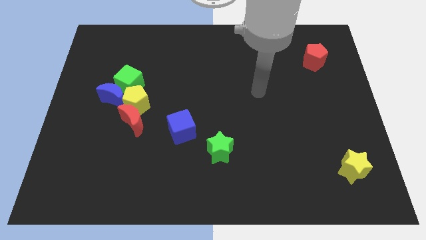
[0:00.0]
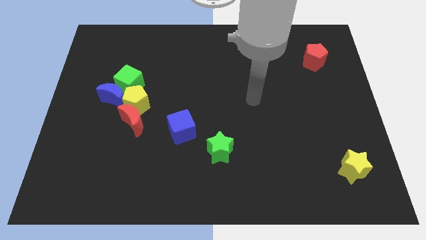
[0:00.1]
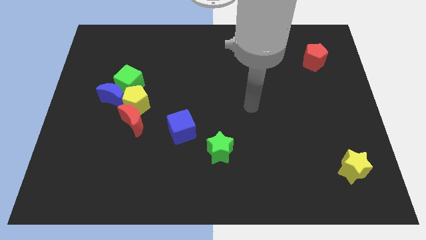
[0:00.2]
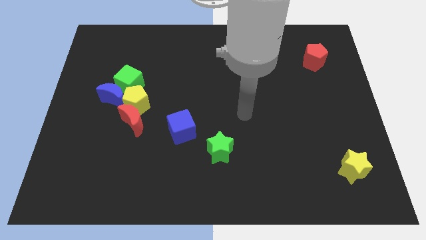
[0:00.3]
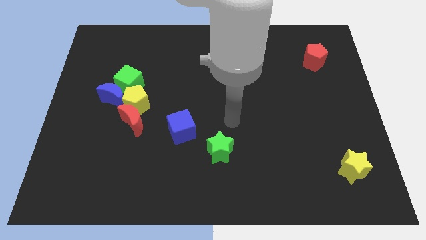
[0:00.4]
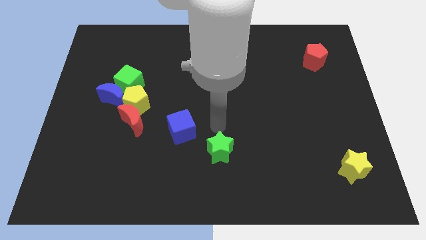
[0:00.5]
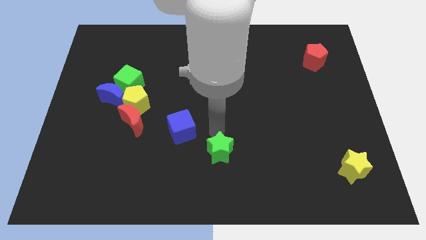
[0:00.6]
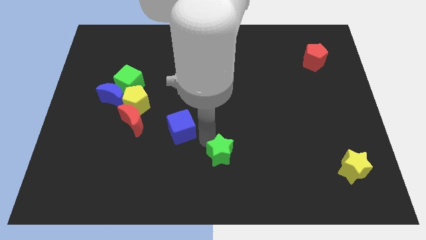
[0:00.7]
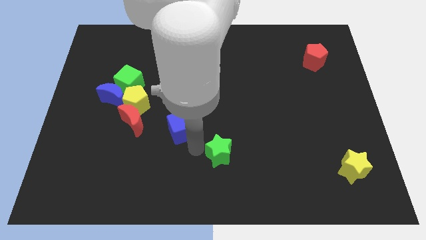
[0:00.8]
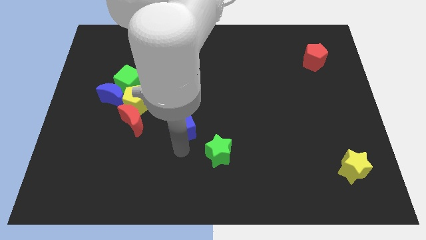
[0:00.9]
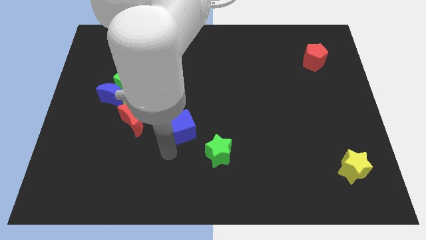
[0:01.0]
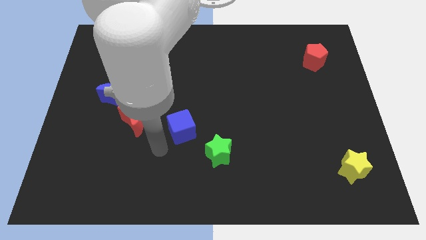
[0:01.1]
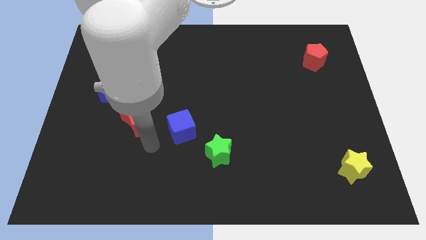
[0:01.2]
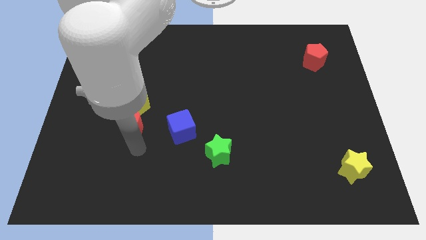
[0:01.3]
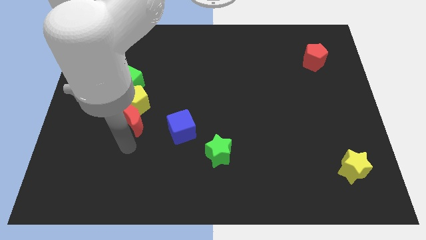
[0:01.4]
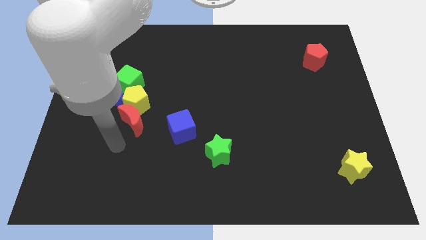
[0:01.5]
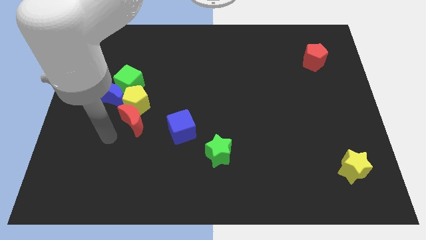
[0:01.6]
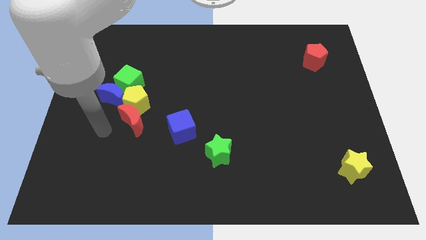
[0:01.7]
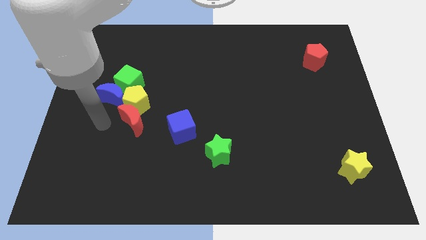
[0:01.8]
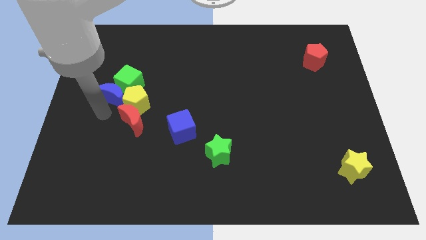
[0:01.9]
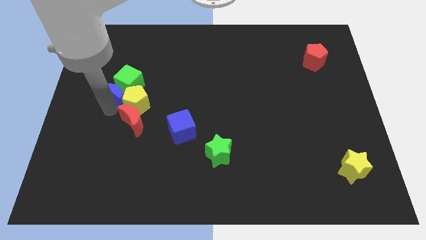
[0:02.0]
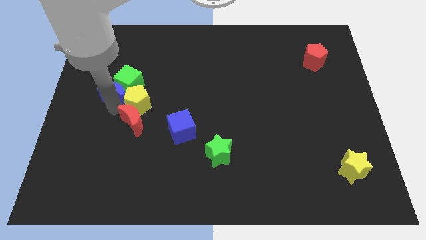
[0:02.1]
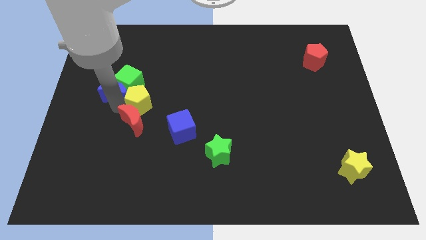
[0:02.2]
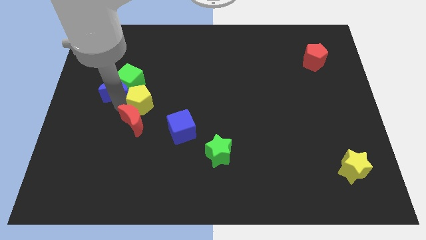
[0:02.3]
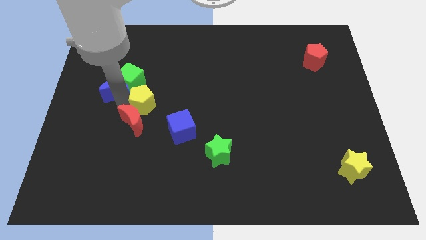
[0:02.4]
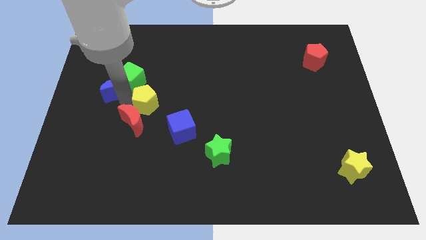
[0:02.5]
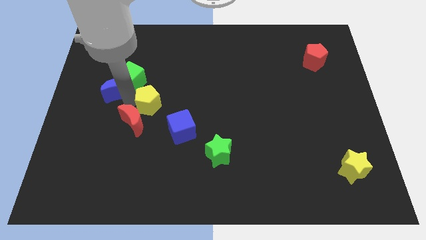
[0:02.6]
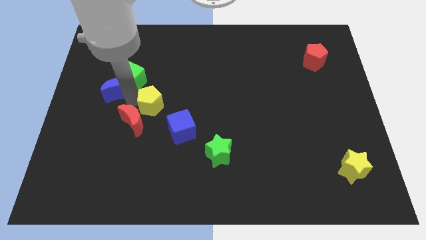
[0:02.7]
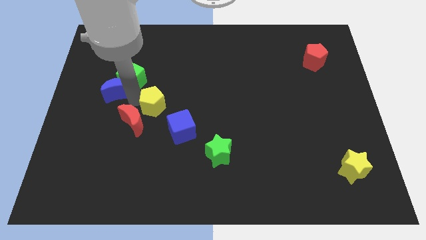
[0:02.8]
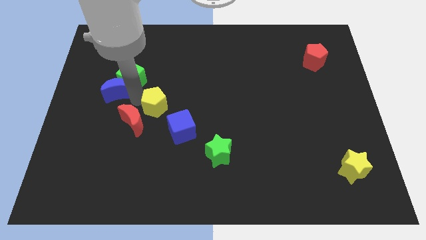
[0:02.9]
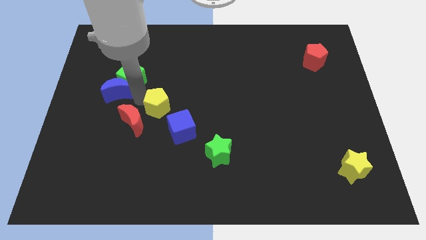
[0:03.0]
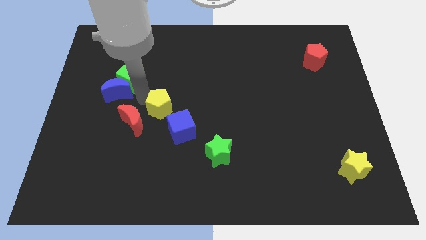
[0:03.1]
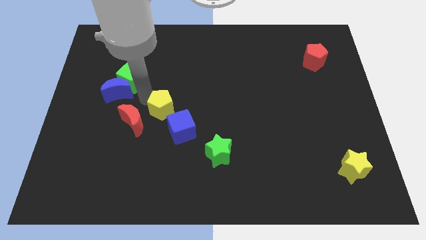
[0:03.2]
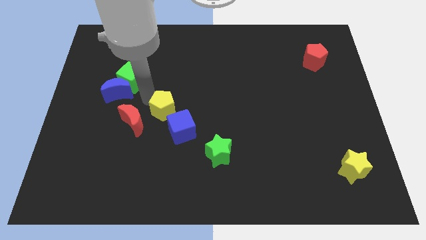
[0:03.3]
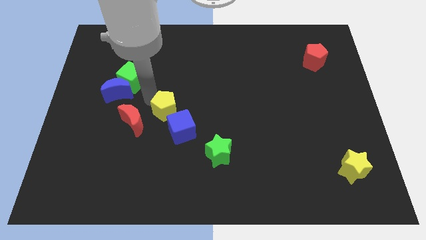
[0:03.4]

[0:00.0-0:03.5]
move the yellow pentagon away from the red moon, blue moon, and green cube

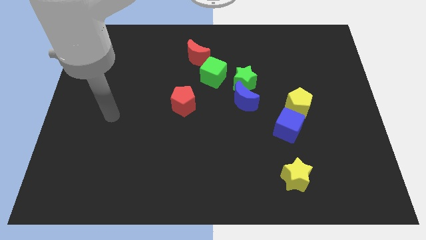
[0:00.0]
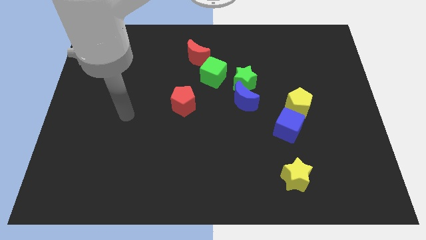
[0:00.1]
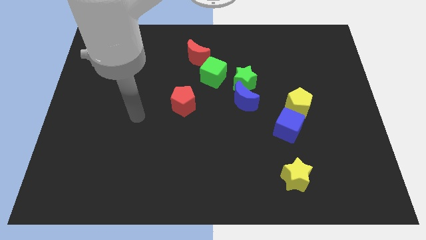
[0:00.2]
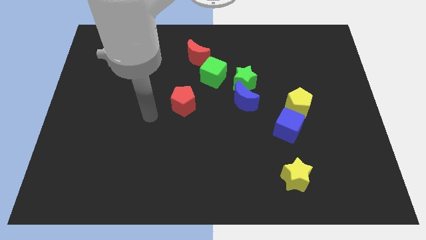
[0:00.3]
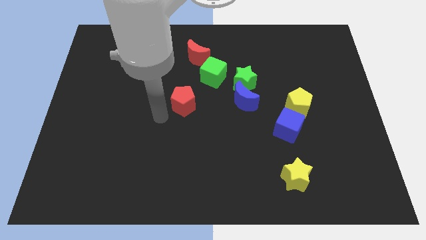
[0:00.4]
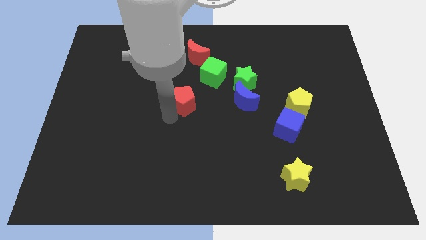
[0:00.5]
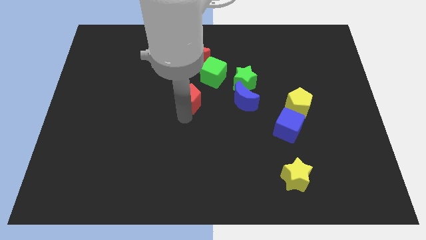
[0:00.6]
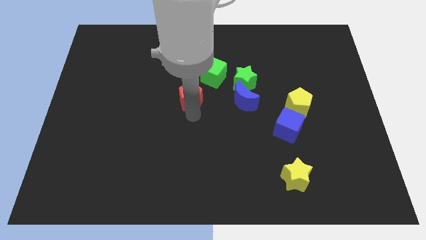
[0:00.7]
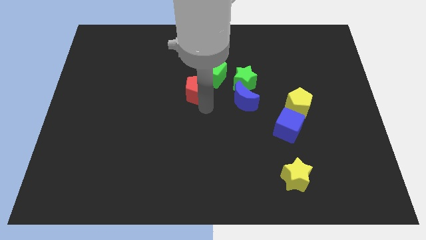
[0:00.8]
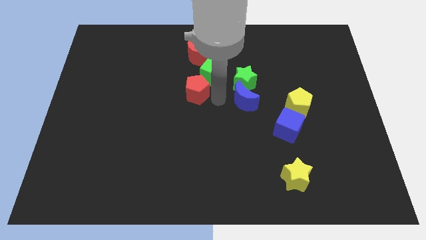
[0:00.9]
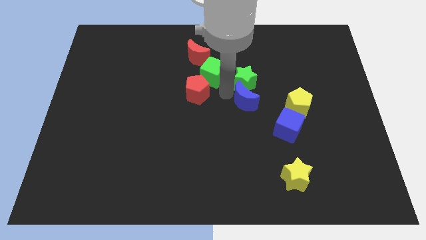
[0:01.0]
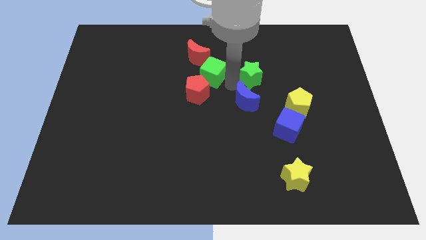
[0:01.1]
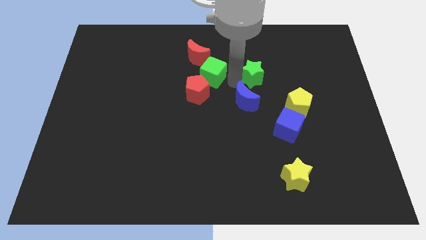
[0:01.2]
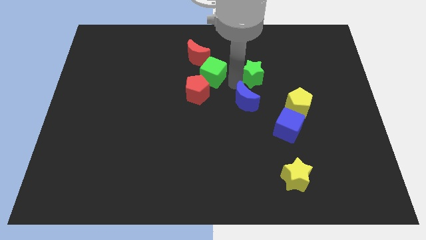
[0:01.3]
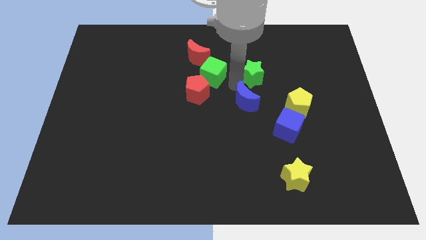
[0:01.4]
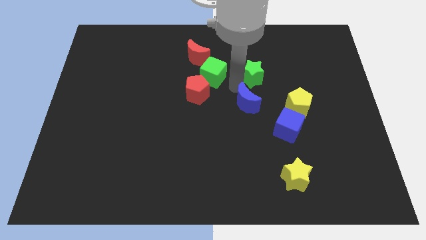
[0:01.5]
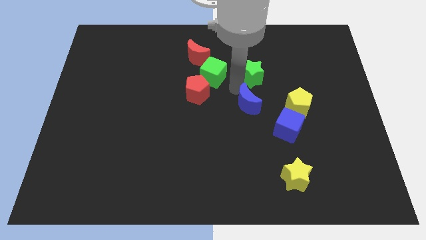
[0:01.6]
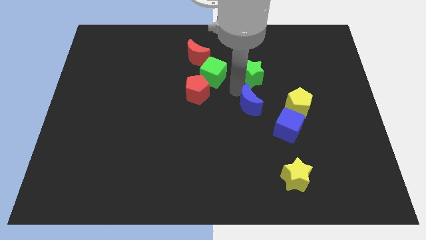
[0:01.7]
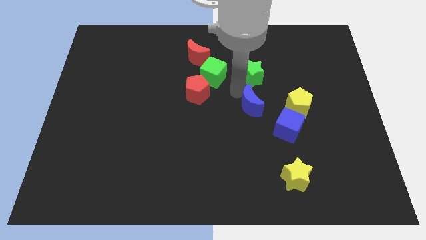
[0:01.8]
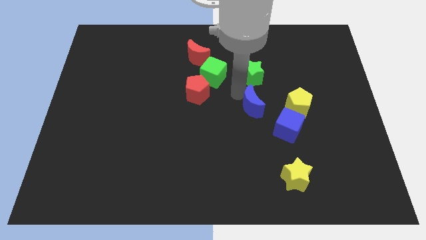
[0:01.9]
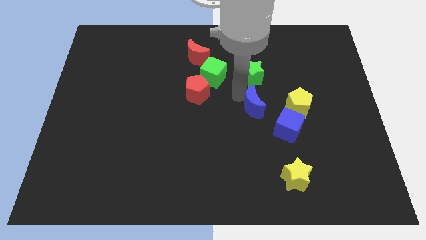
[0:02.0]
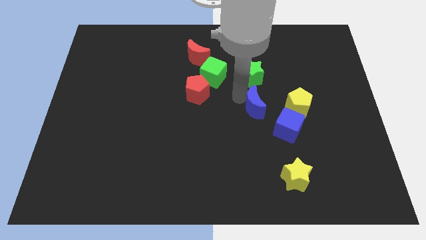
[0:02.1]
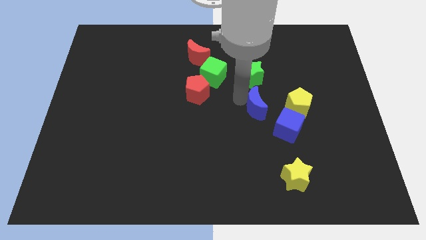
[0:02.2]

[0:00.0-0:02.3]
move the blue moon away from the green star

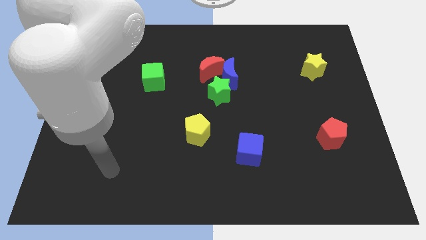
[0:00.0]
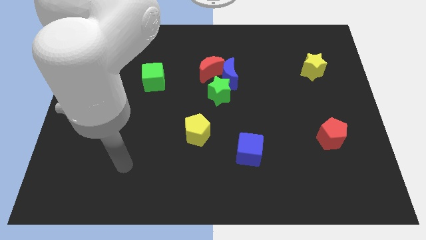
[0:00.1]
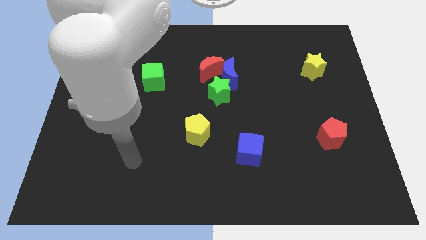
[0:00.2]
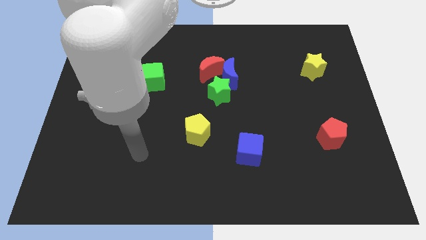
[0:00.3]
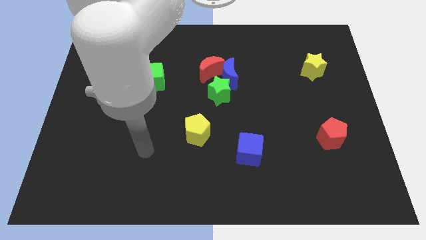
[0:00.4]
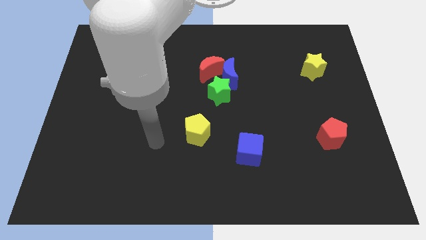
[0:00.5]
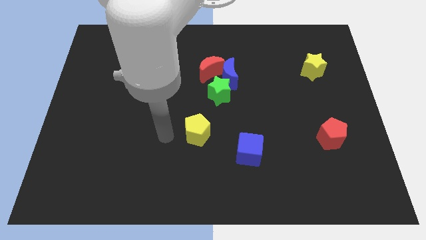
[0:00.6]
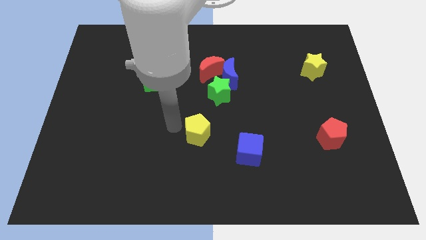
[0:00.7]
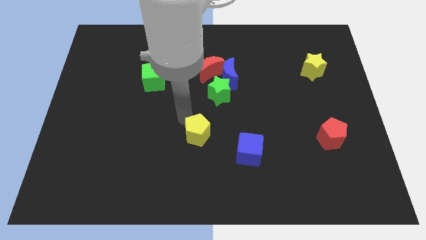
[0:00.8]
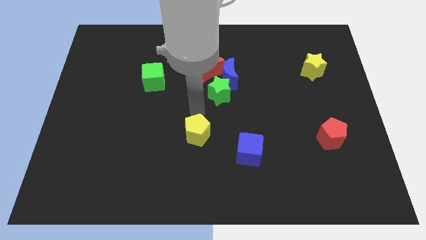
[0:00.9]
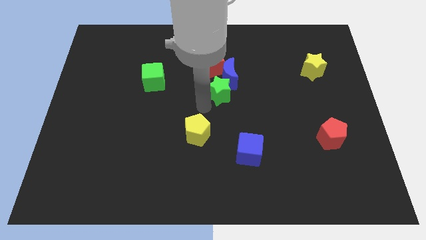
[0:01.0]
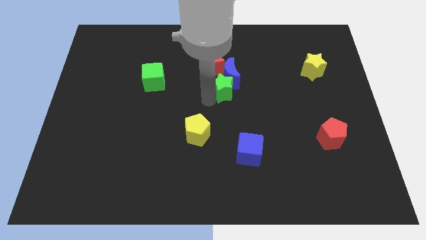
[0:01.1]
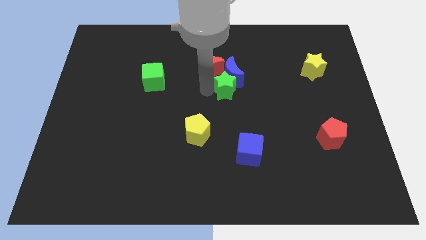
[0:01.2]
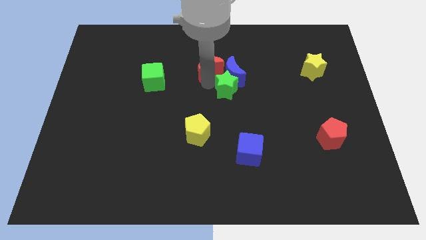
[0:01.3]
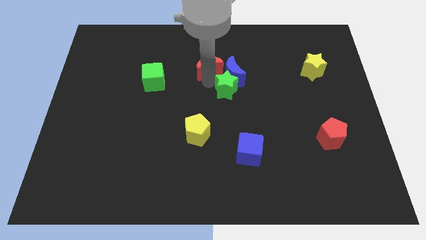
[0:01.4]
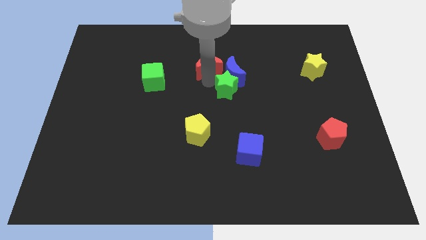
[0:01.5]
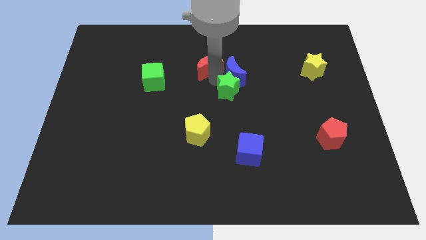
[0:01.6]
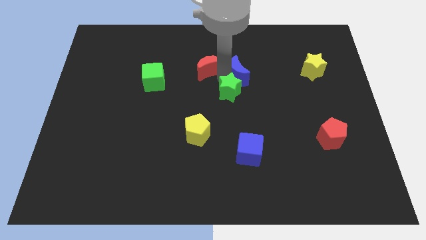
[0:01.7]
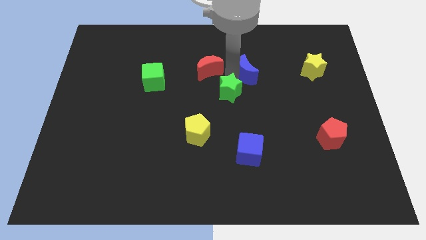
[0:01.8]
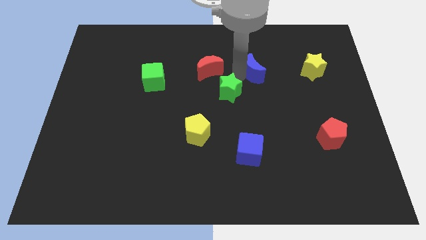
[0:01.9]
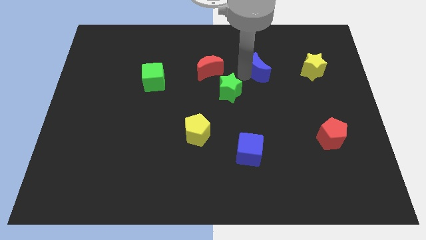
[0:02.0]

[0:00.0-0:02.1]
move the blue moon away from the red moon and green star

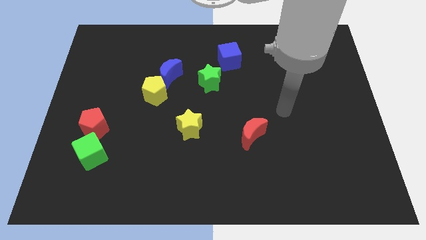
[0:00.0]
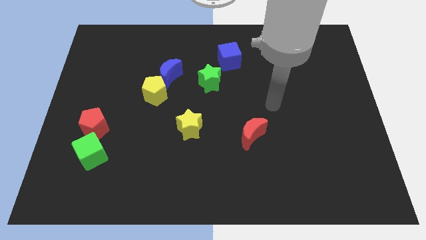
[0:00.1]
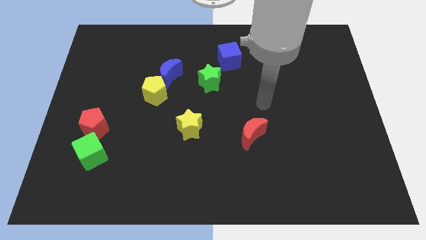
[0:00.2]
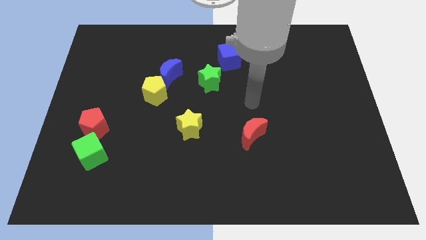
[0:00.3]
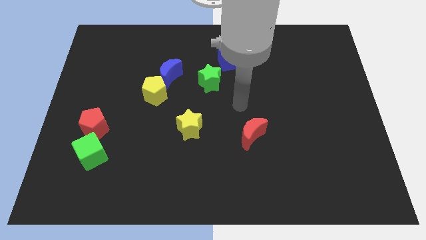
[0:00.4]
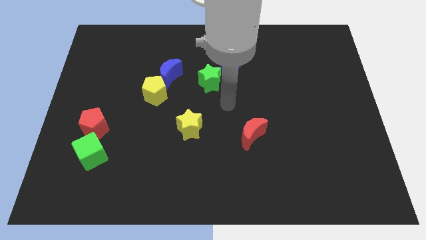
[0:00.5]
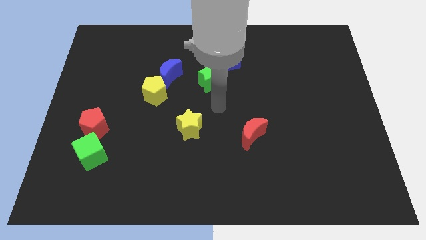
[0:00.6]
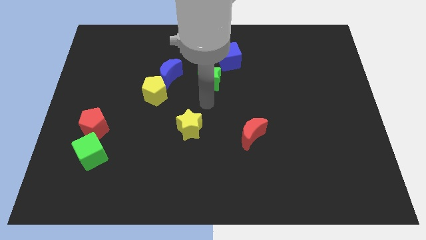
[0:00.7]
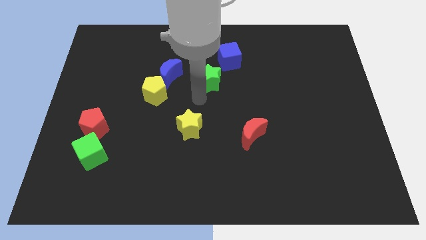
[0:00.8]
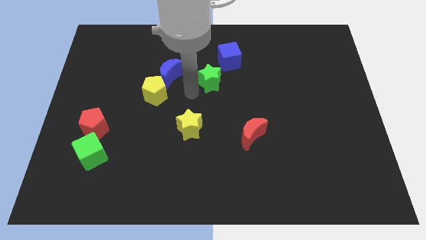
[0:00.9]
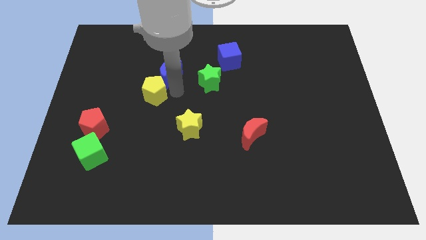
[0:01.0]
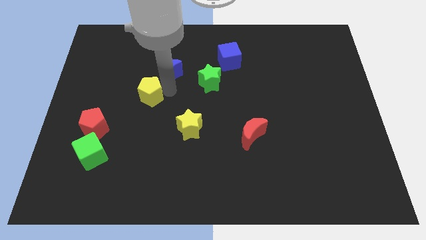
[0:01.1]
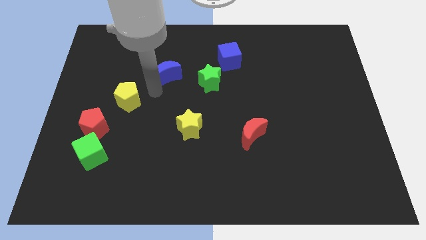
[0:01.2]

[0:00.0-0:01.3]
pull the blue moon apart from the yellow pentagon
